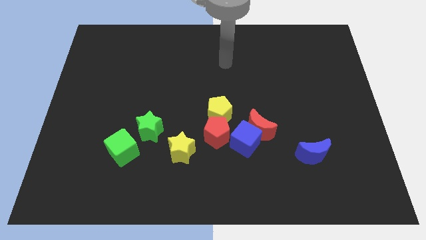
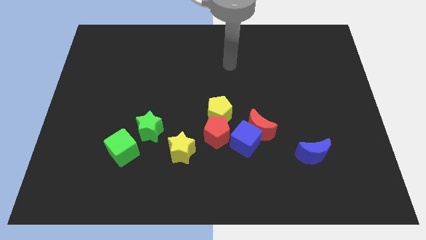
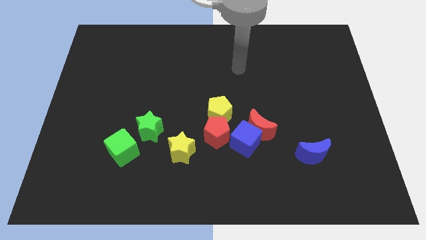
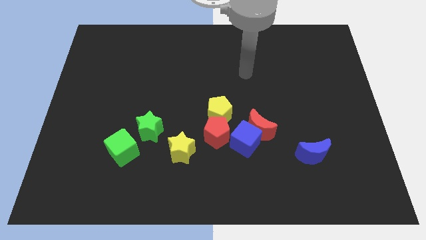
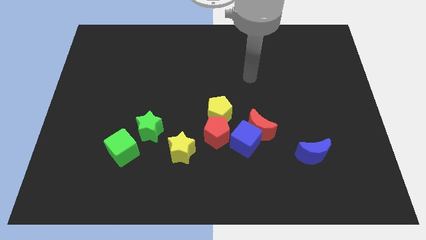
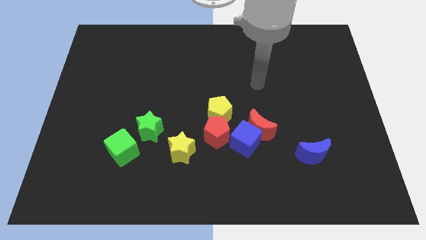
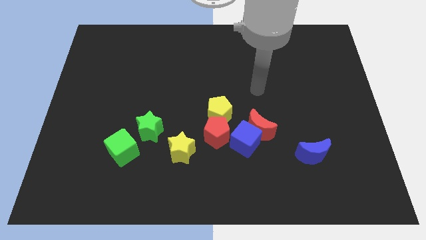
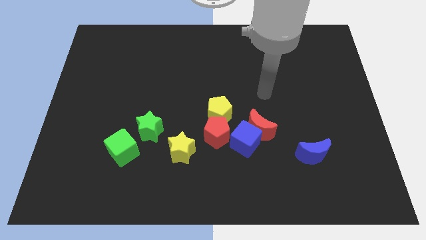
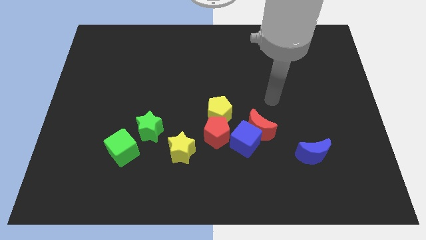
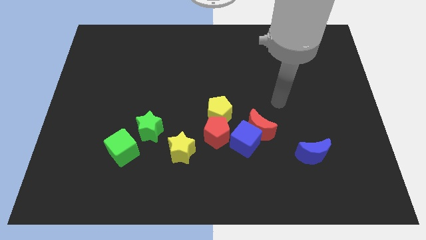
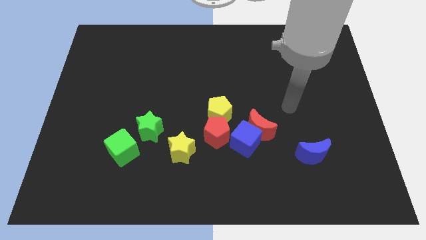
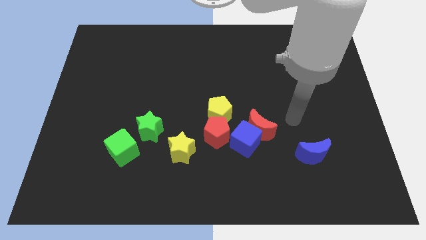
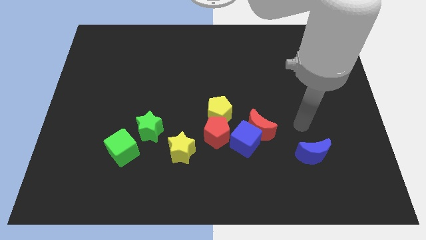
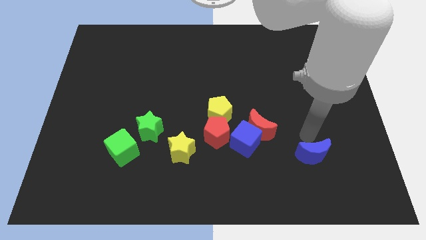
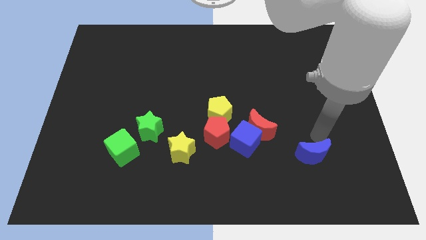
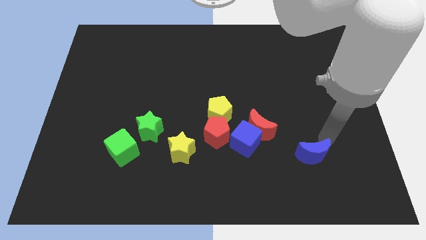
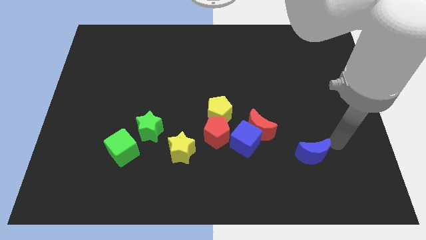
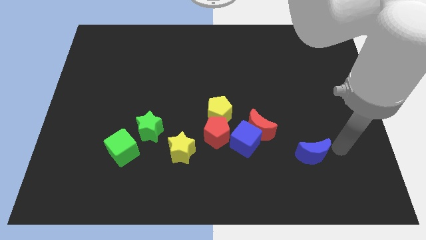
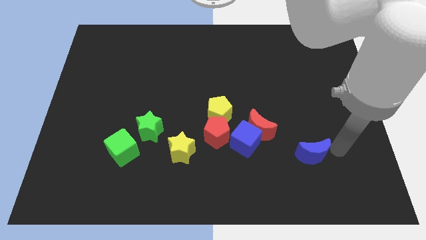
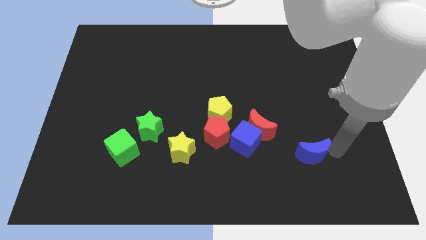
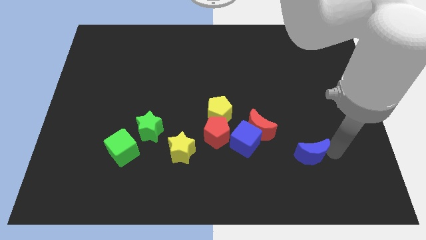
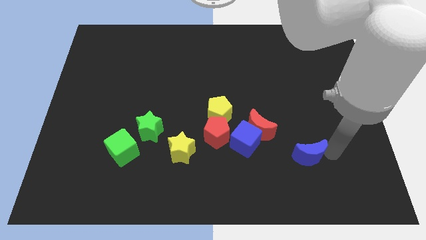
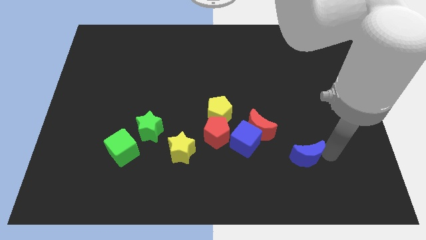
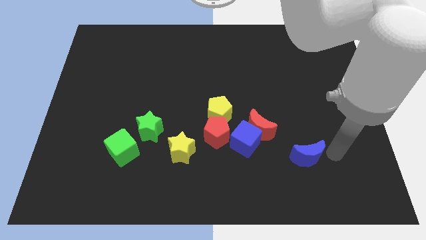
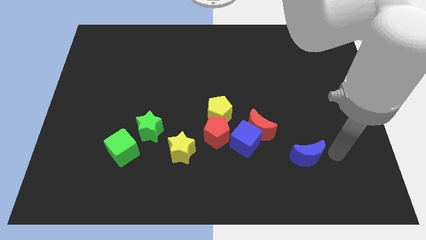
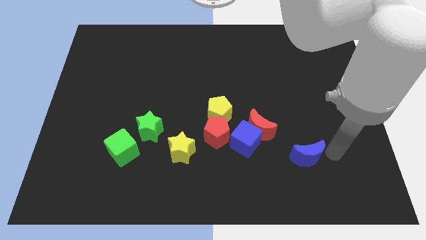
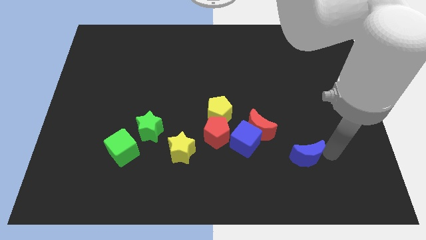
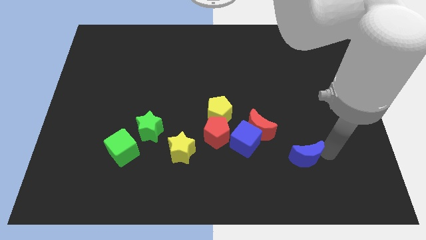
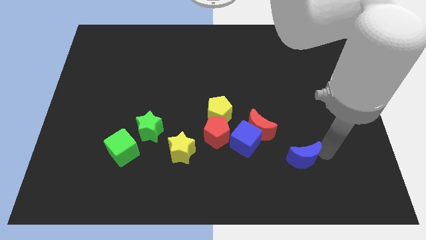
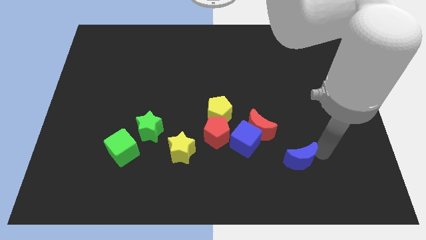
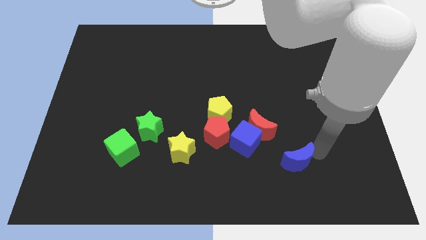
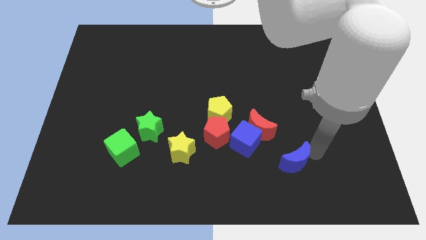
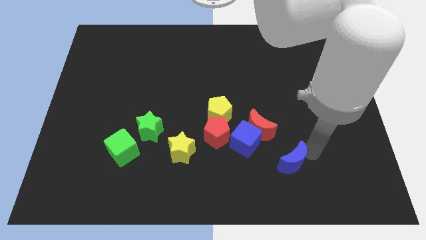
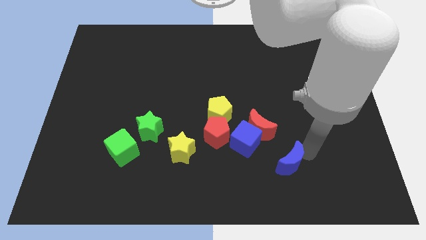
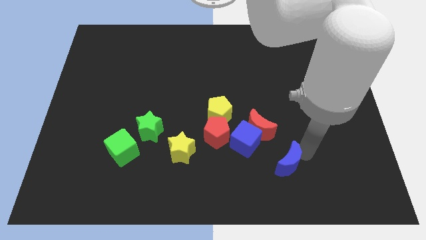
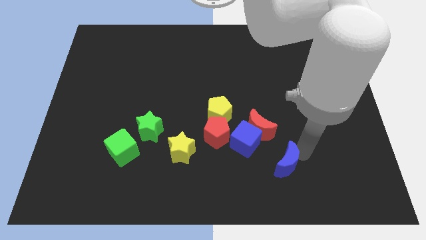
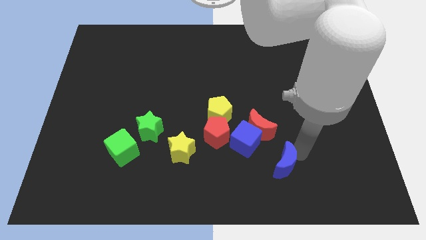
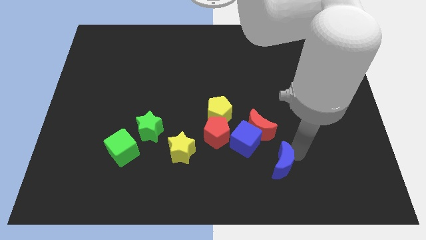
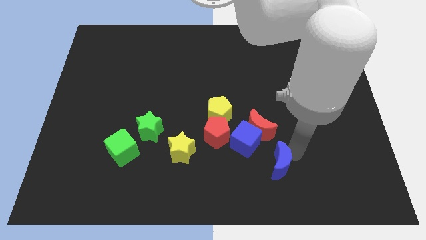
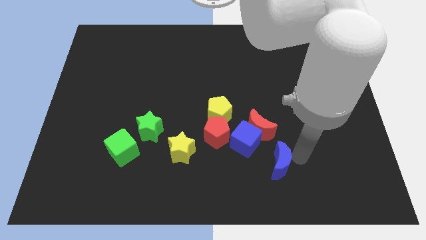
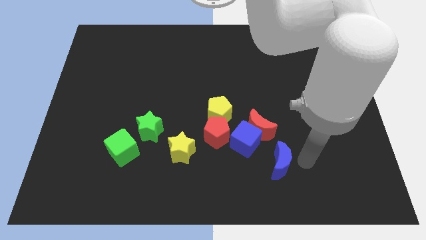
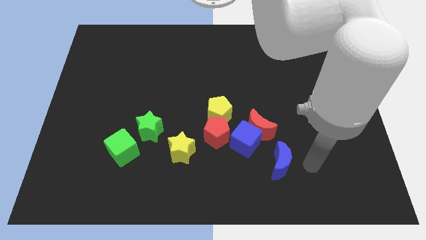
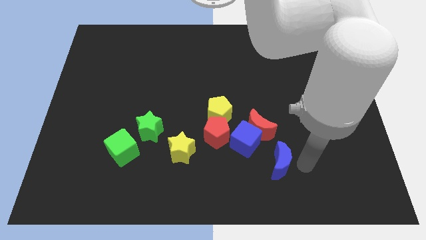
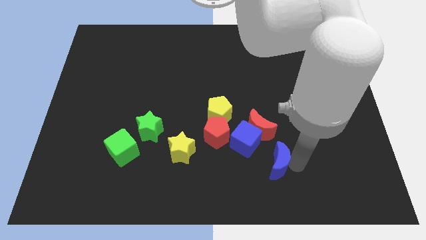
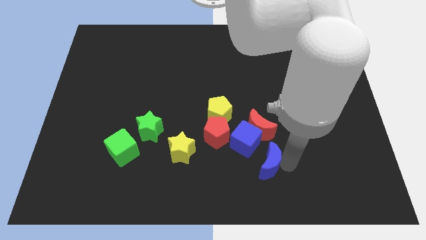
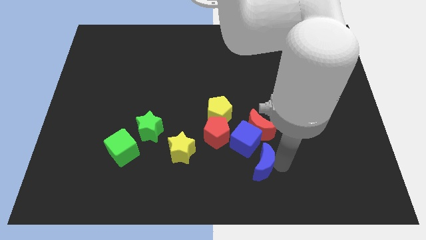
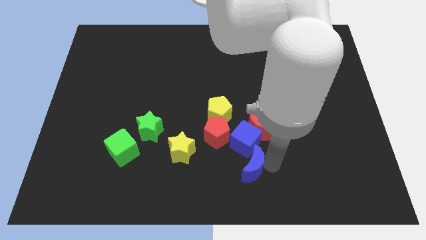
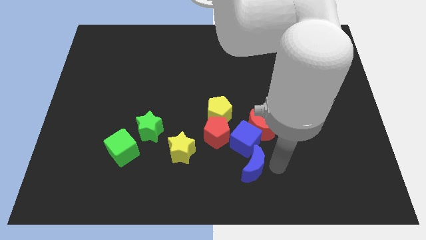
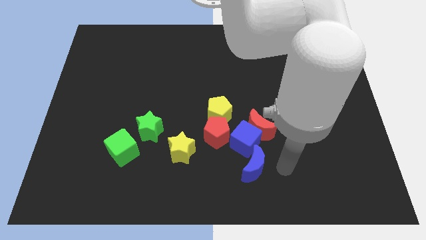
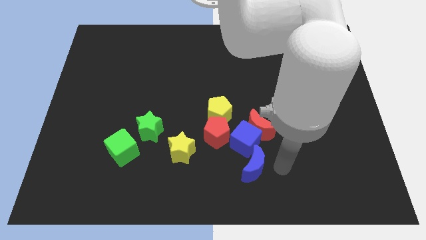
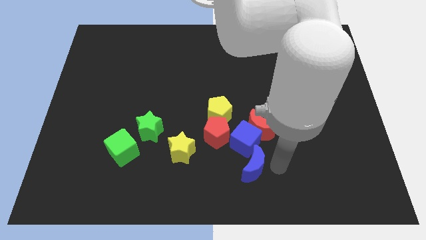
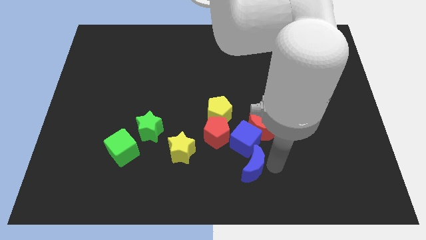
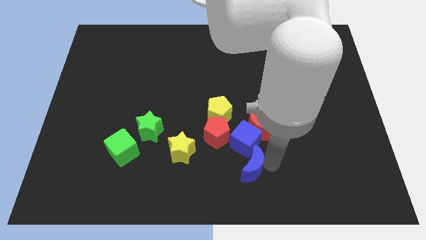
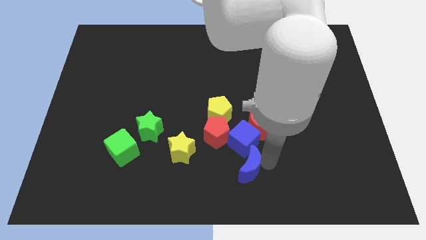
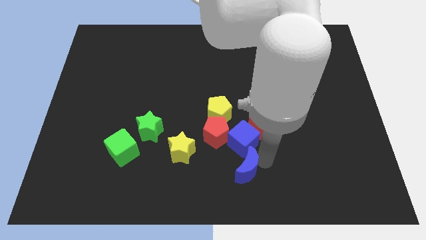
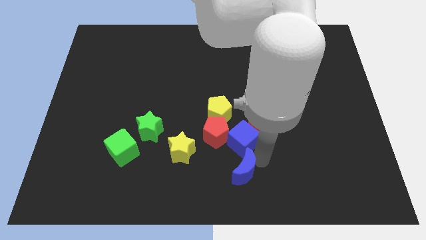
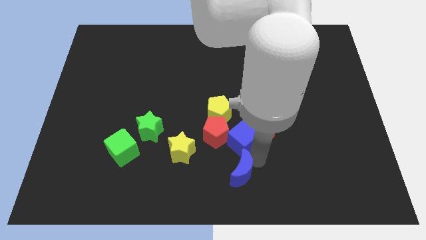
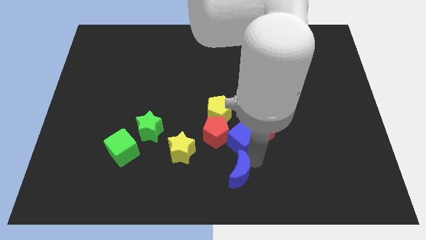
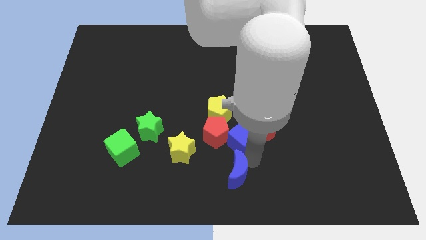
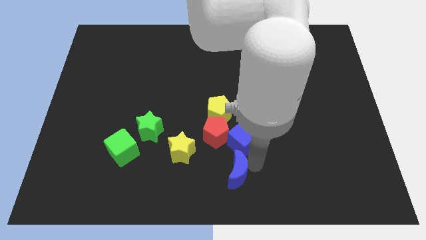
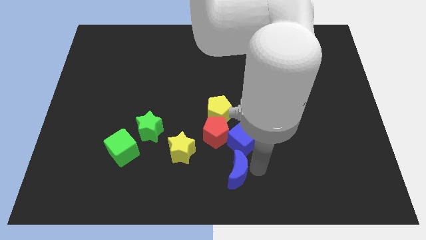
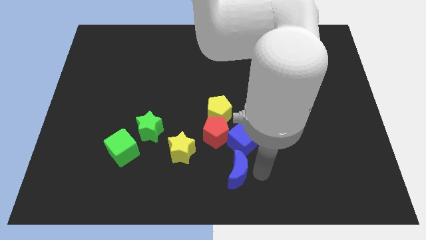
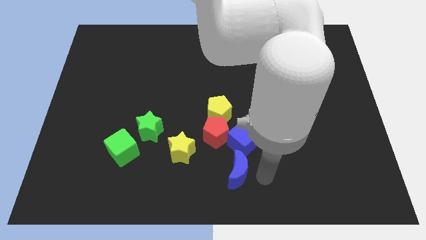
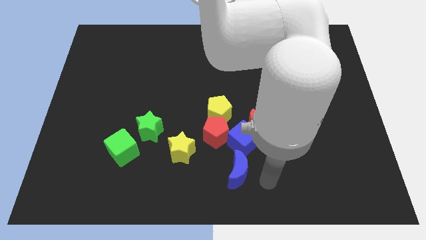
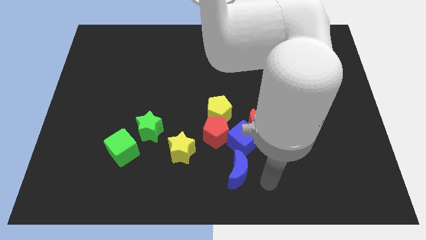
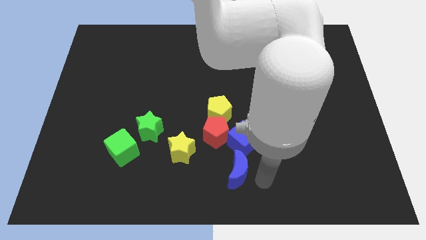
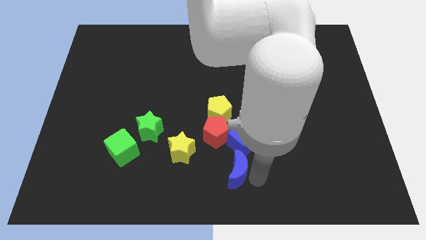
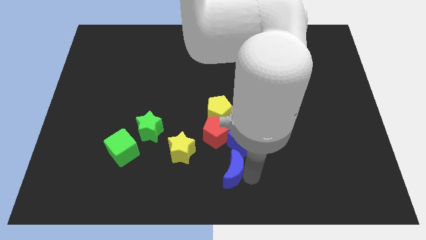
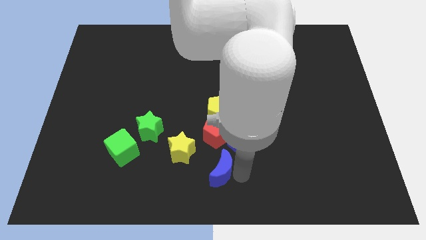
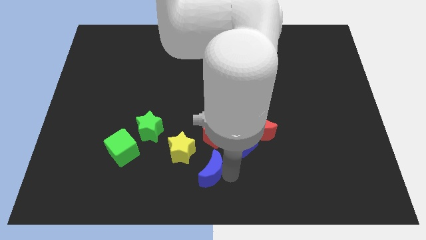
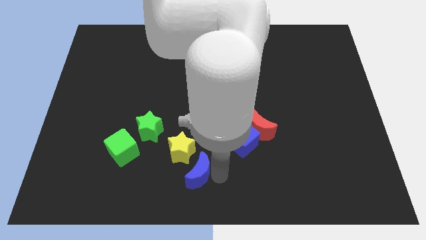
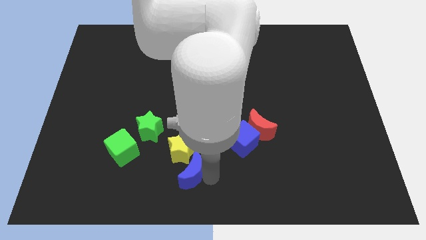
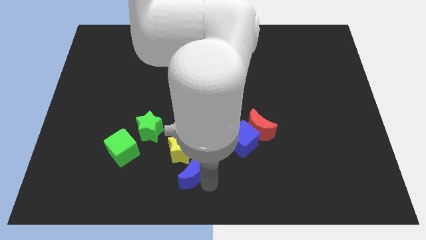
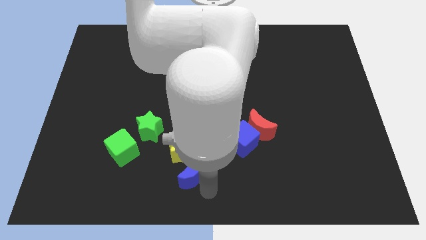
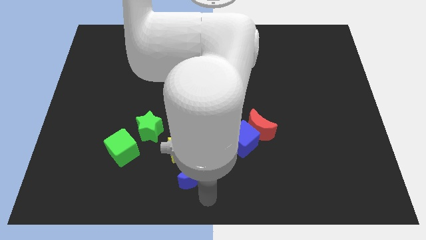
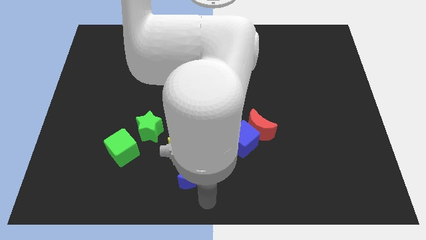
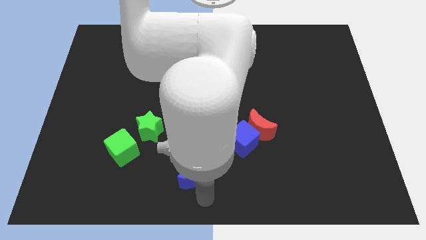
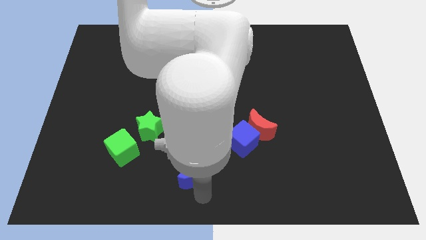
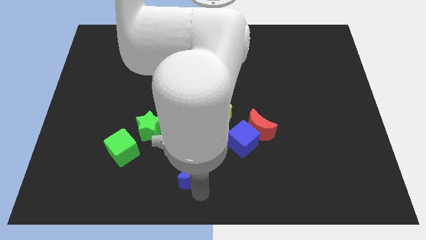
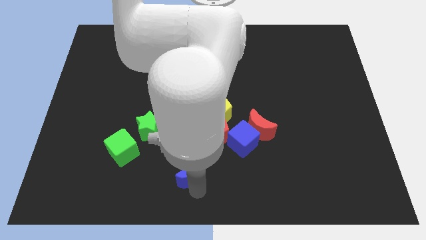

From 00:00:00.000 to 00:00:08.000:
slide the blue moon next to the yellow star
